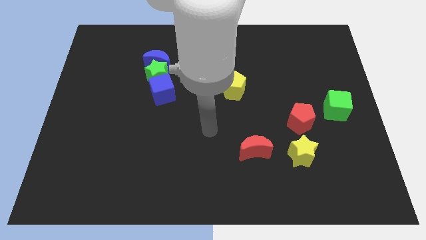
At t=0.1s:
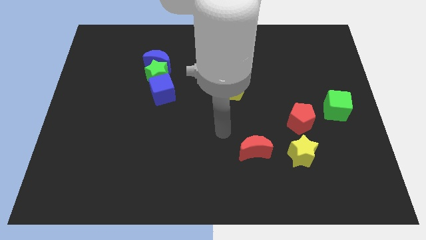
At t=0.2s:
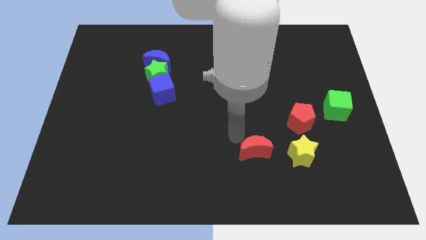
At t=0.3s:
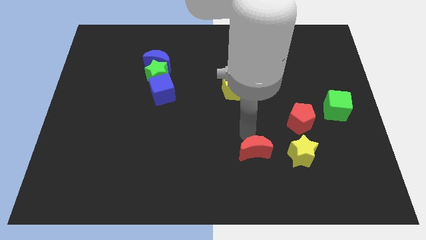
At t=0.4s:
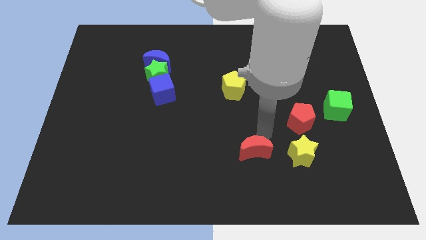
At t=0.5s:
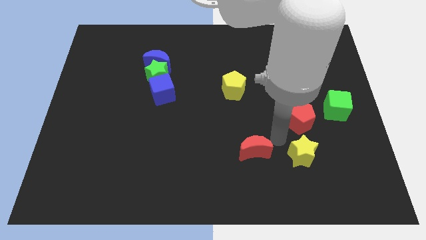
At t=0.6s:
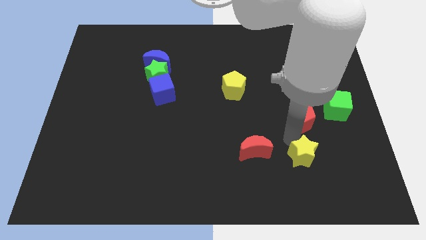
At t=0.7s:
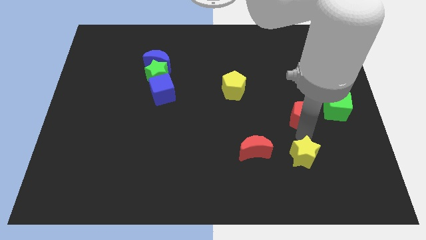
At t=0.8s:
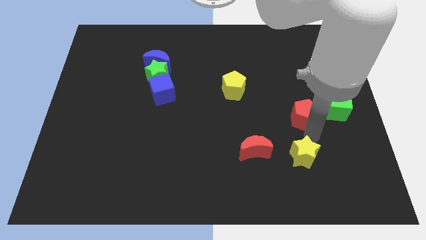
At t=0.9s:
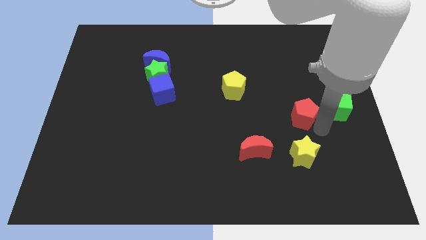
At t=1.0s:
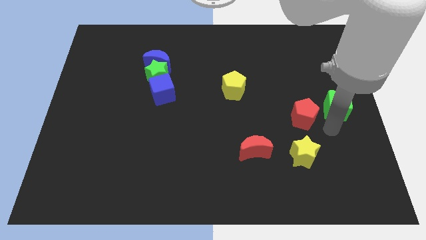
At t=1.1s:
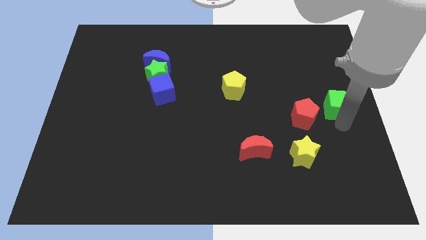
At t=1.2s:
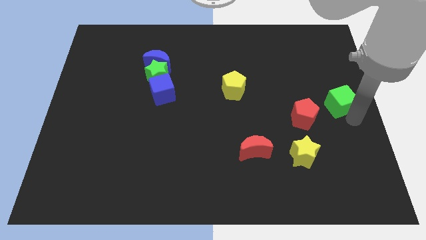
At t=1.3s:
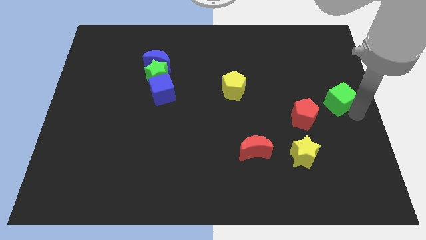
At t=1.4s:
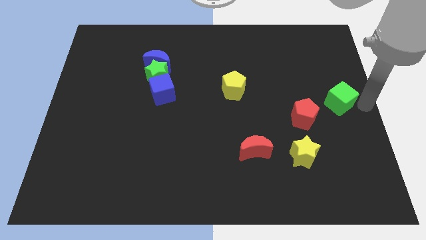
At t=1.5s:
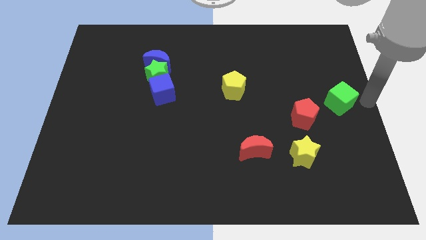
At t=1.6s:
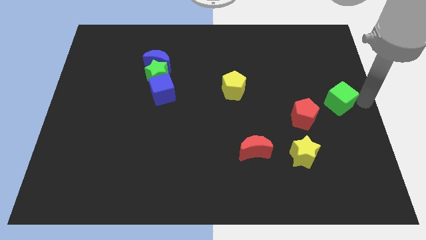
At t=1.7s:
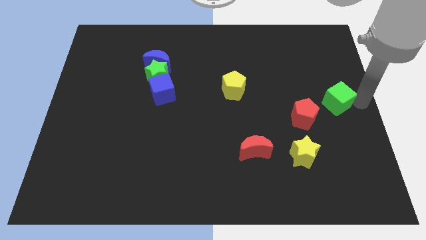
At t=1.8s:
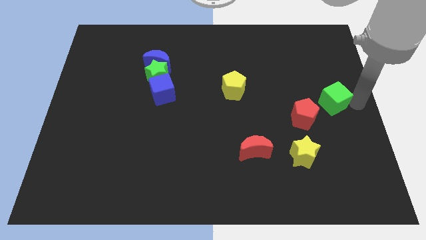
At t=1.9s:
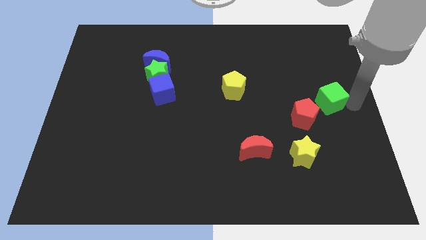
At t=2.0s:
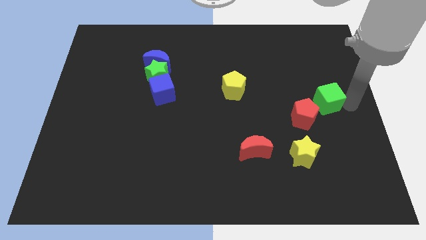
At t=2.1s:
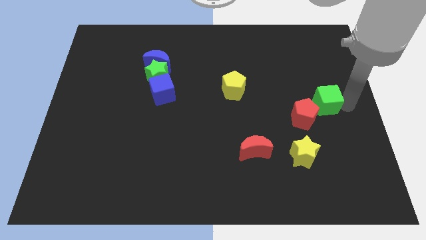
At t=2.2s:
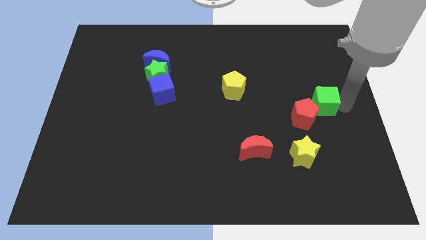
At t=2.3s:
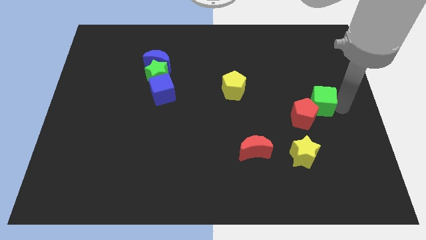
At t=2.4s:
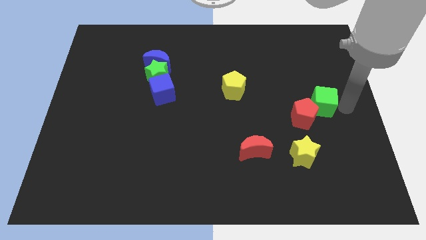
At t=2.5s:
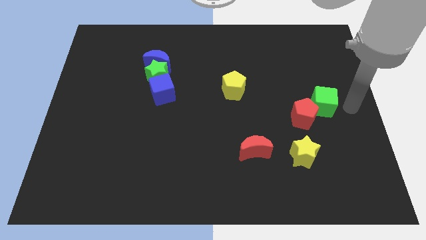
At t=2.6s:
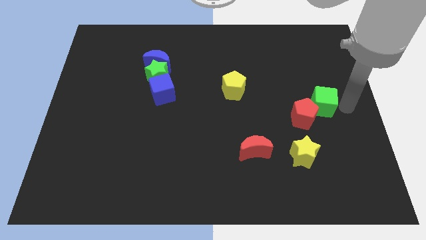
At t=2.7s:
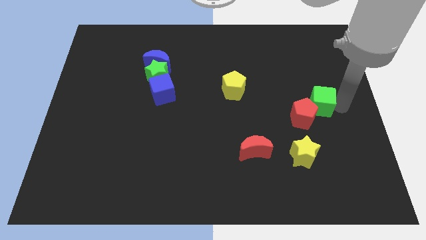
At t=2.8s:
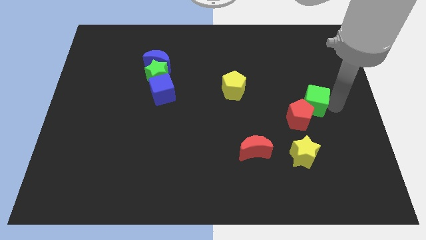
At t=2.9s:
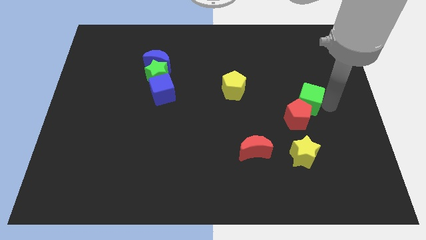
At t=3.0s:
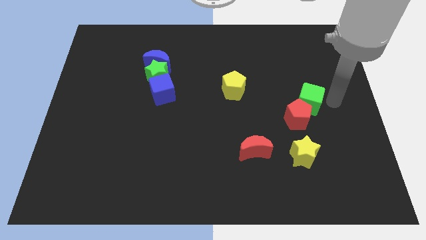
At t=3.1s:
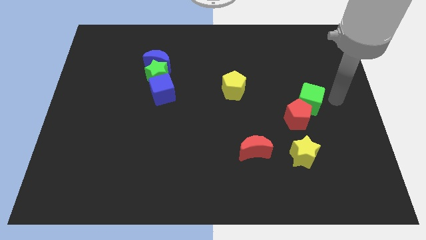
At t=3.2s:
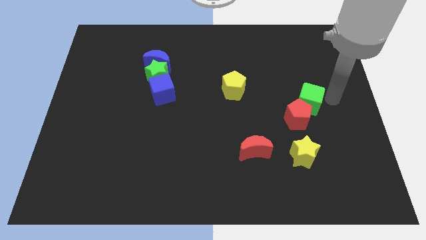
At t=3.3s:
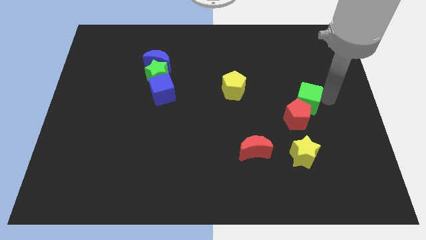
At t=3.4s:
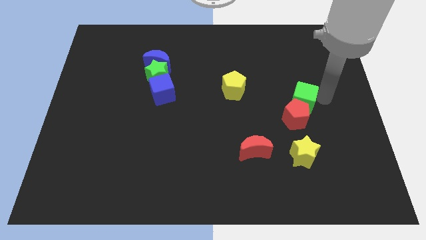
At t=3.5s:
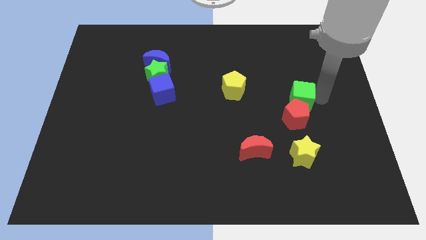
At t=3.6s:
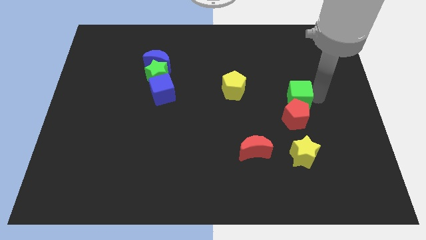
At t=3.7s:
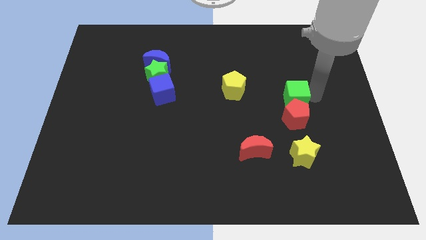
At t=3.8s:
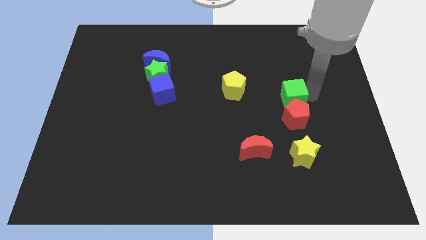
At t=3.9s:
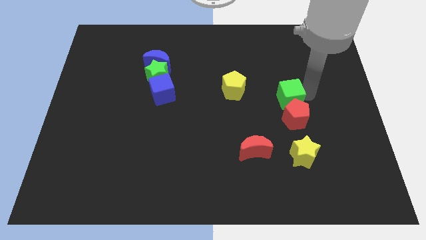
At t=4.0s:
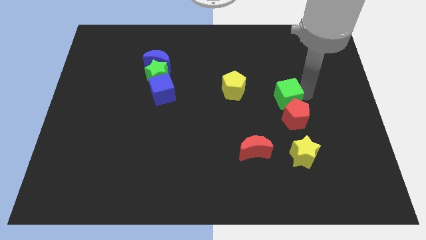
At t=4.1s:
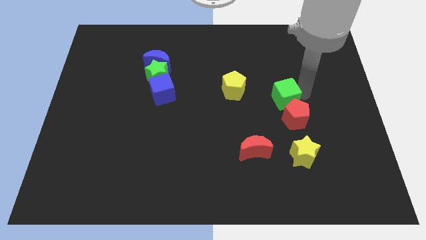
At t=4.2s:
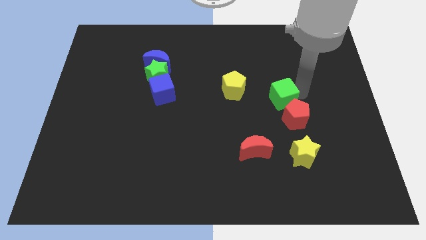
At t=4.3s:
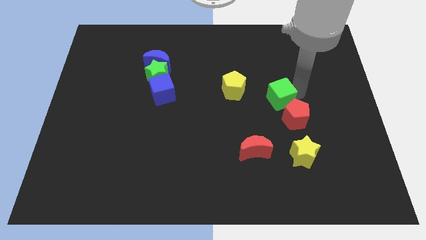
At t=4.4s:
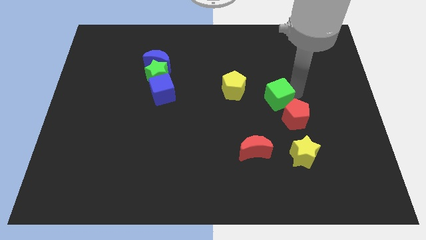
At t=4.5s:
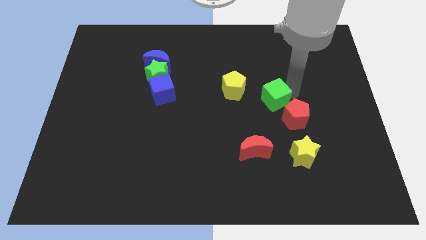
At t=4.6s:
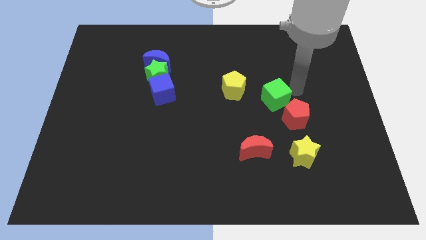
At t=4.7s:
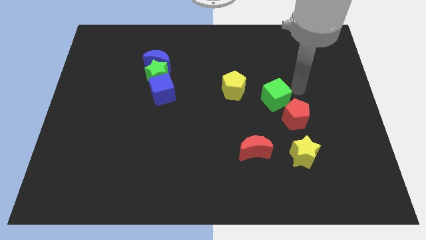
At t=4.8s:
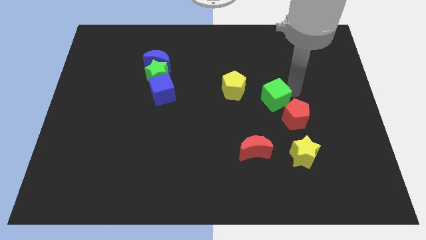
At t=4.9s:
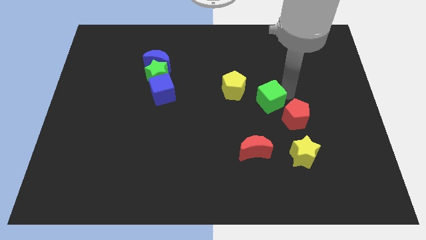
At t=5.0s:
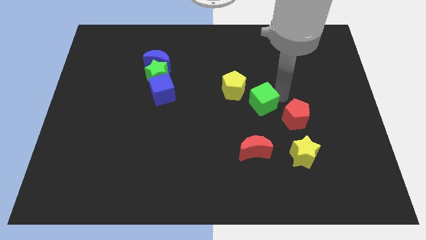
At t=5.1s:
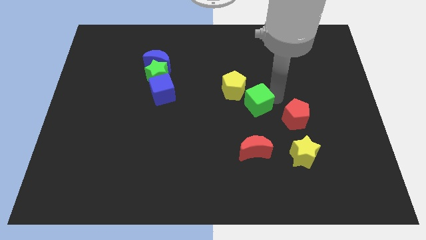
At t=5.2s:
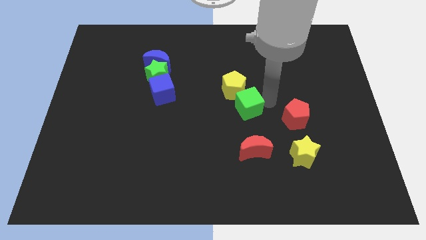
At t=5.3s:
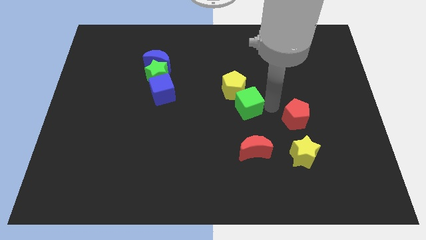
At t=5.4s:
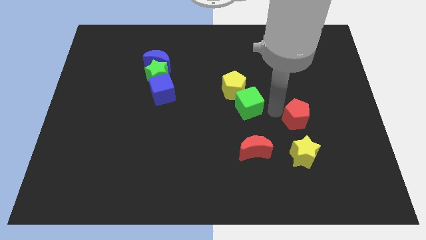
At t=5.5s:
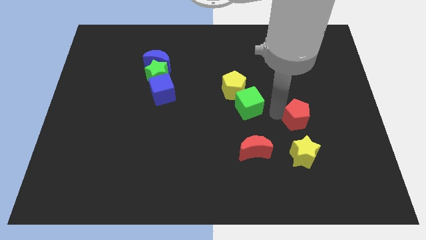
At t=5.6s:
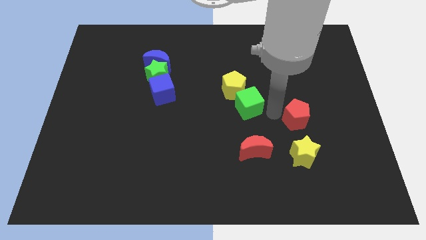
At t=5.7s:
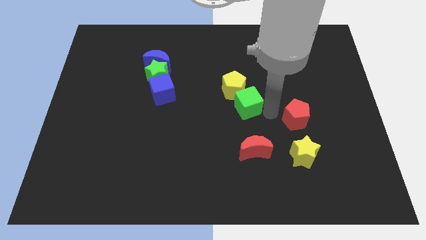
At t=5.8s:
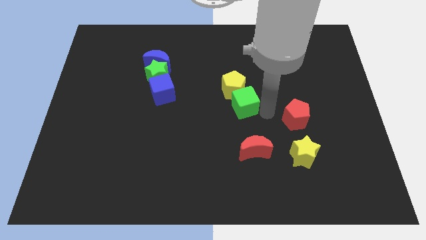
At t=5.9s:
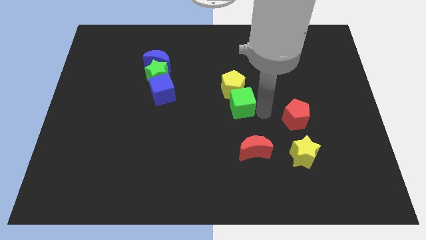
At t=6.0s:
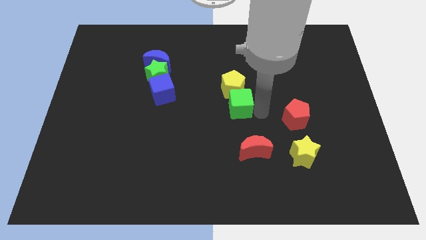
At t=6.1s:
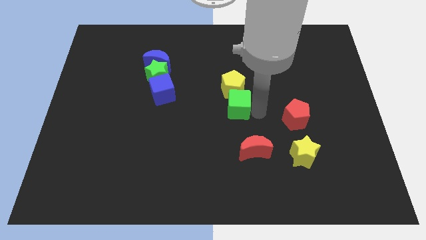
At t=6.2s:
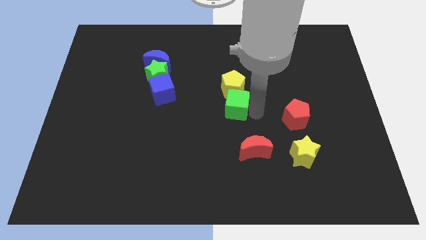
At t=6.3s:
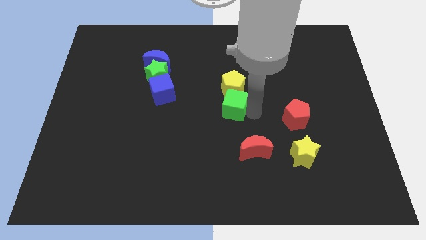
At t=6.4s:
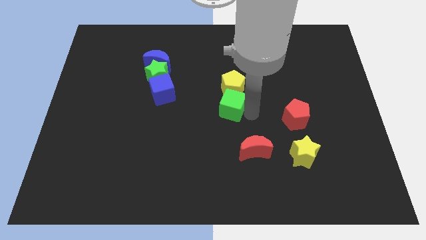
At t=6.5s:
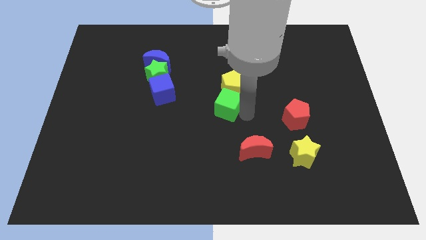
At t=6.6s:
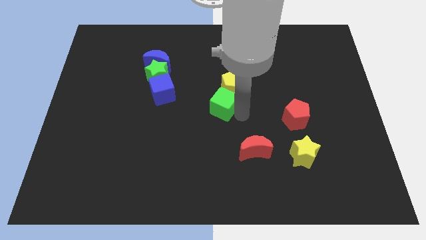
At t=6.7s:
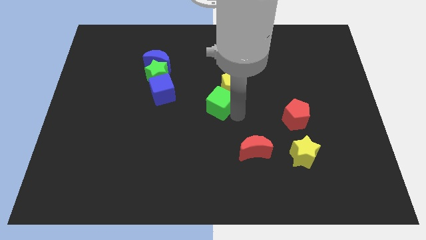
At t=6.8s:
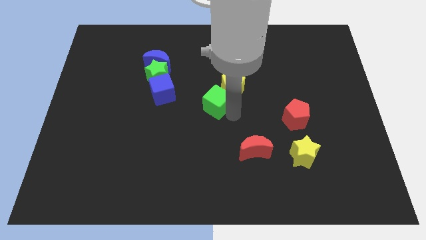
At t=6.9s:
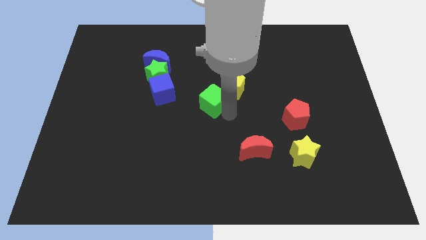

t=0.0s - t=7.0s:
slide the green cube to the left side of the yellow pentagon
